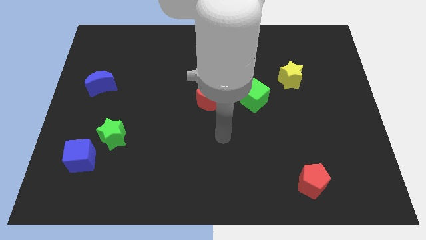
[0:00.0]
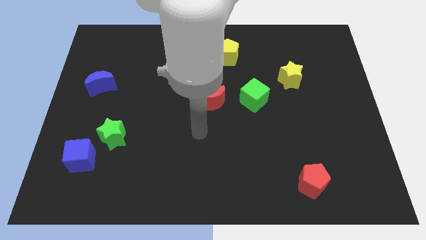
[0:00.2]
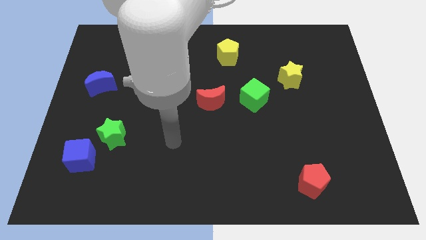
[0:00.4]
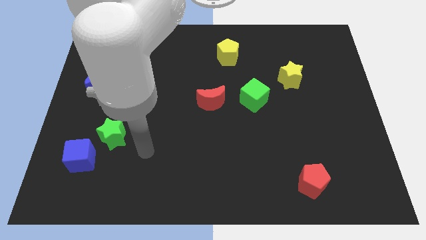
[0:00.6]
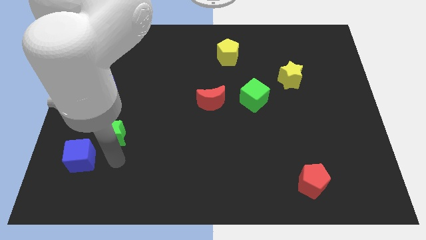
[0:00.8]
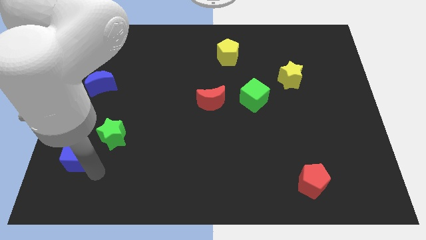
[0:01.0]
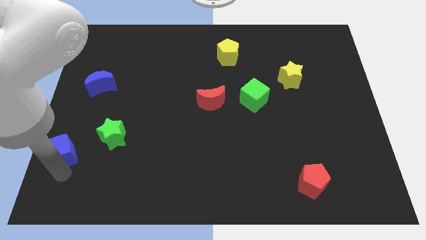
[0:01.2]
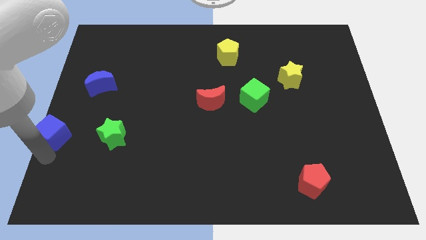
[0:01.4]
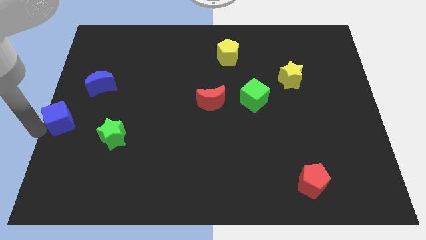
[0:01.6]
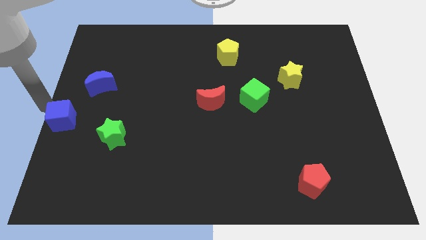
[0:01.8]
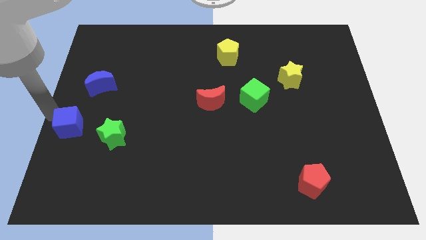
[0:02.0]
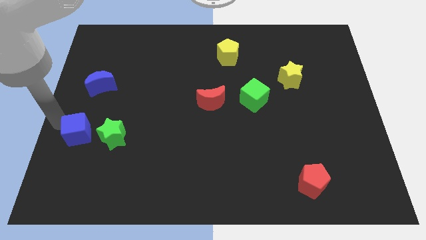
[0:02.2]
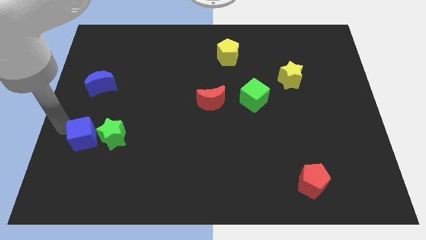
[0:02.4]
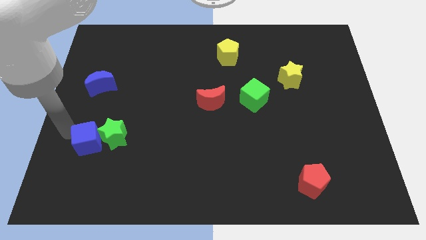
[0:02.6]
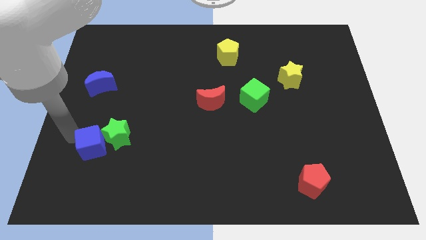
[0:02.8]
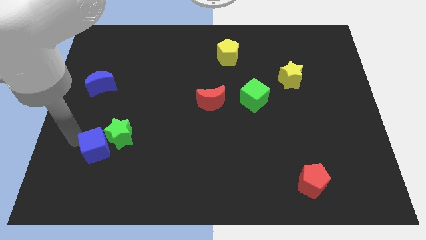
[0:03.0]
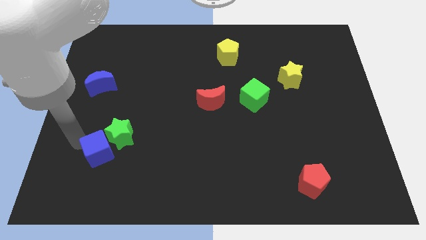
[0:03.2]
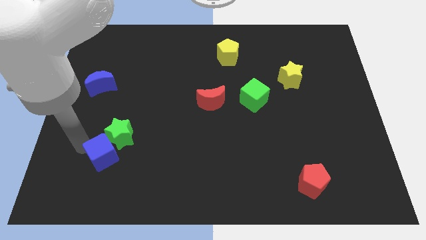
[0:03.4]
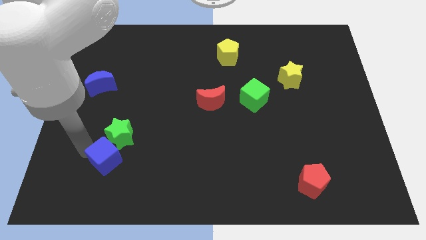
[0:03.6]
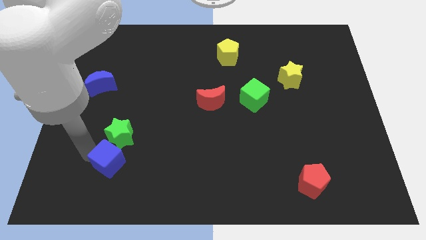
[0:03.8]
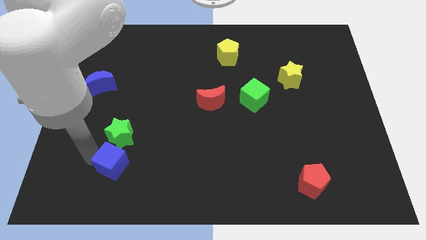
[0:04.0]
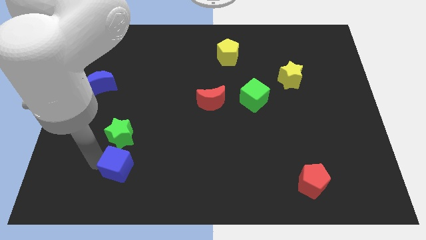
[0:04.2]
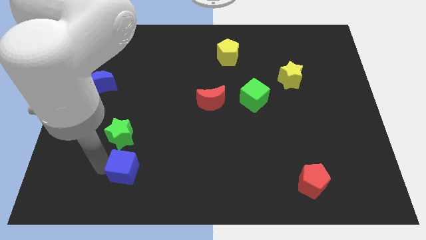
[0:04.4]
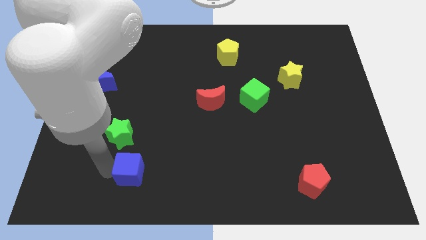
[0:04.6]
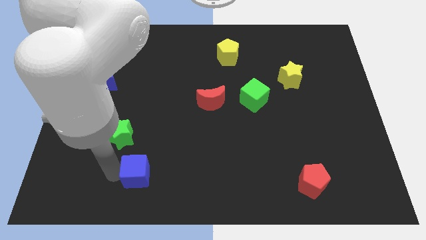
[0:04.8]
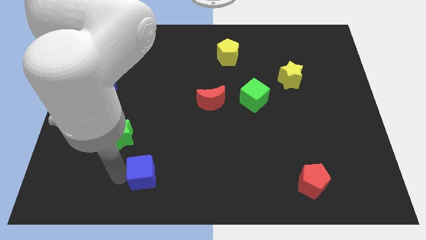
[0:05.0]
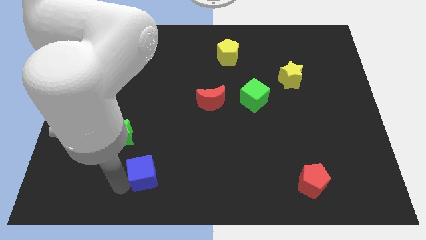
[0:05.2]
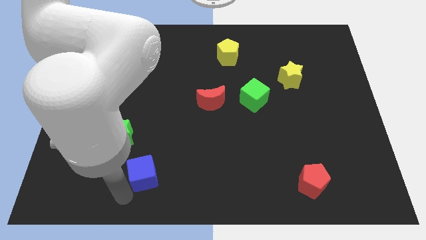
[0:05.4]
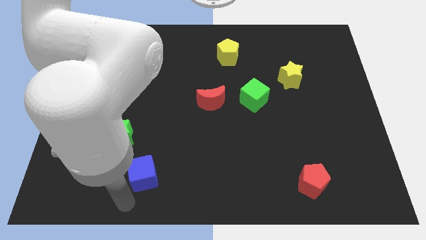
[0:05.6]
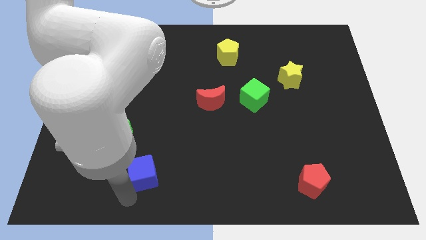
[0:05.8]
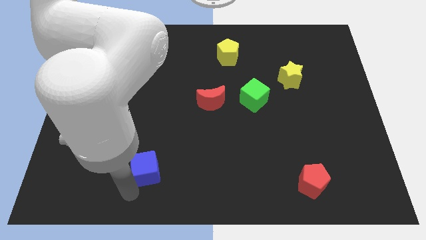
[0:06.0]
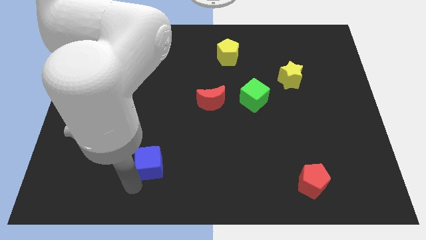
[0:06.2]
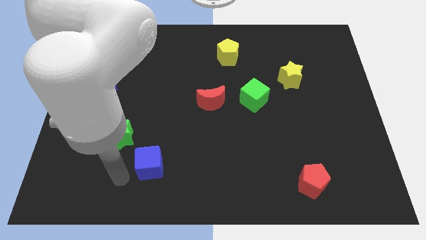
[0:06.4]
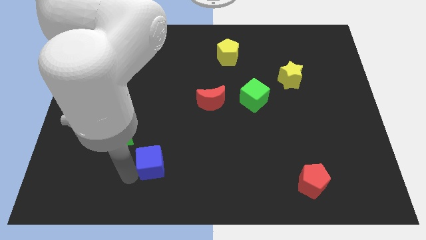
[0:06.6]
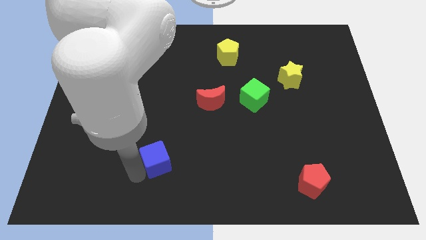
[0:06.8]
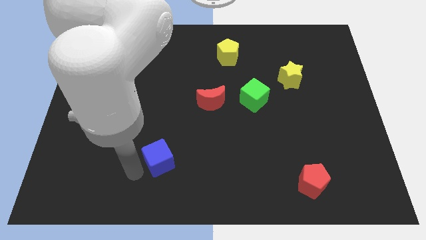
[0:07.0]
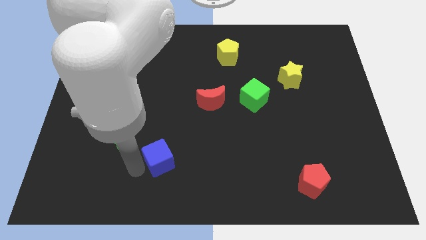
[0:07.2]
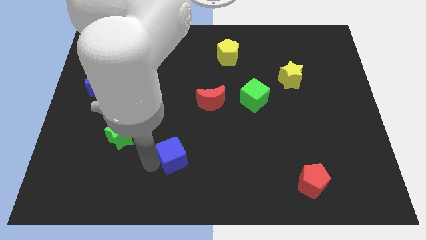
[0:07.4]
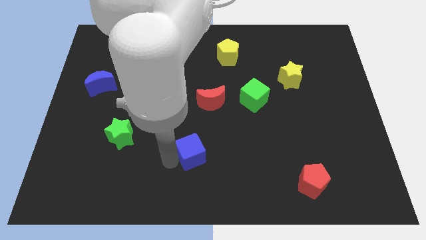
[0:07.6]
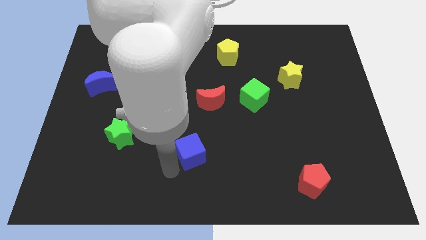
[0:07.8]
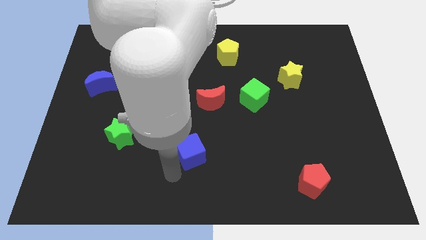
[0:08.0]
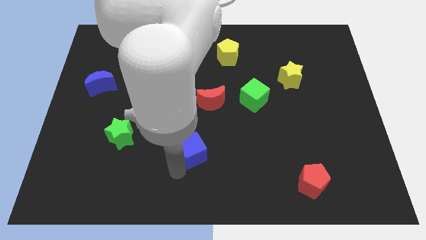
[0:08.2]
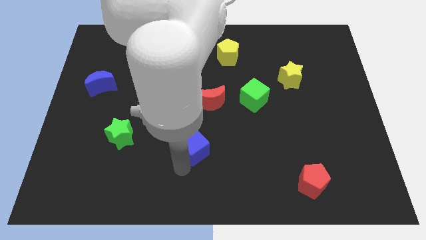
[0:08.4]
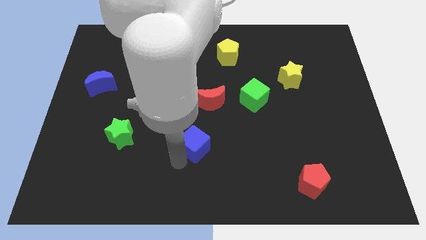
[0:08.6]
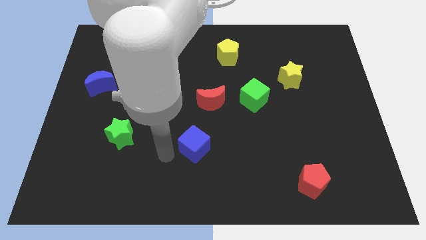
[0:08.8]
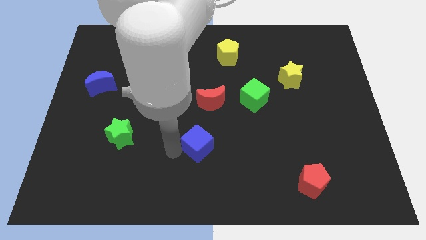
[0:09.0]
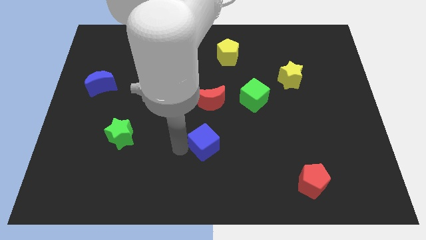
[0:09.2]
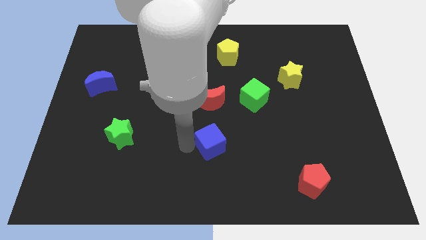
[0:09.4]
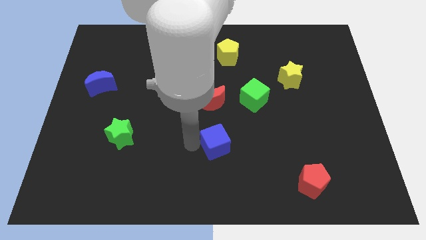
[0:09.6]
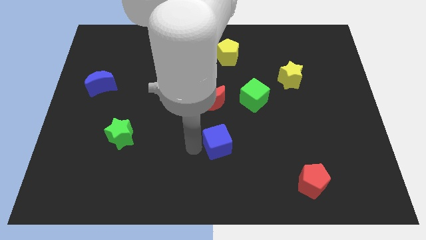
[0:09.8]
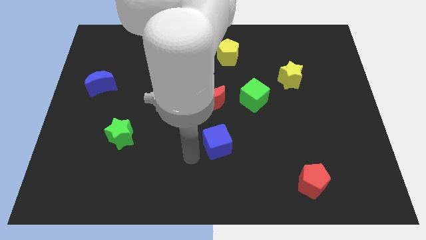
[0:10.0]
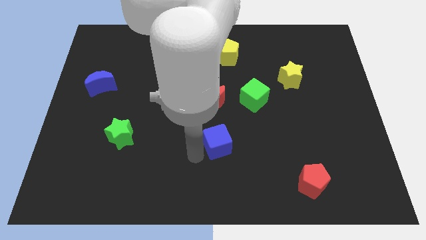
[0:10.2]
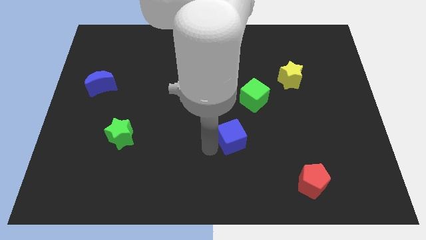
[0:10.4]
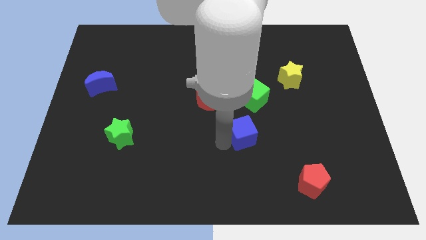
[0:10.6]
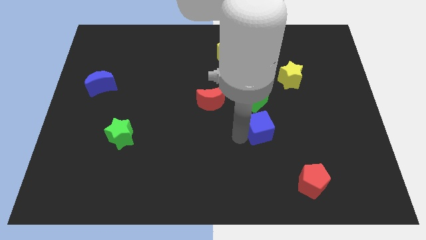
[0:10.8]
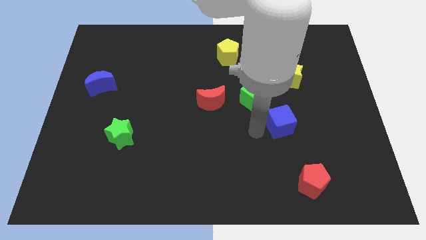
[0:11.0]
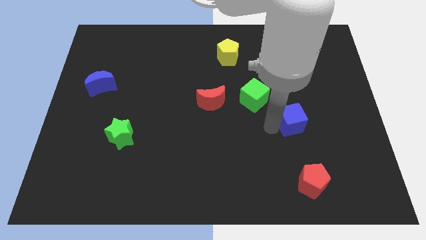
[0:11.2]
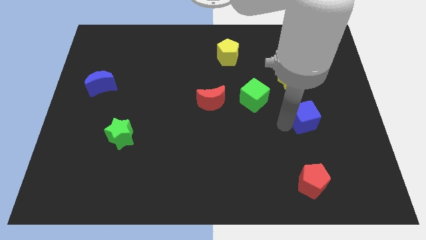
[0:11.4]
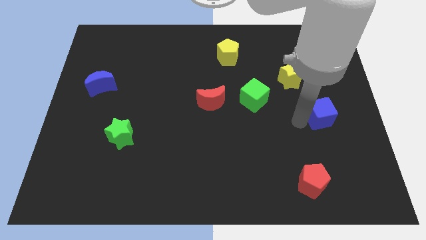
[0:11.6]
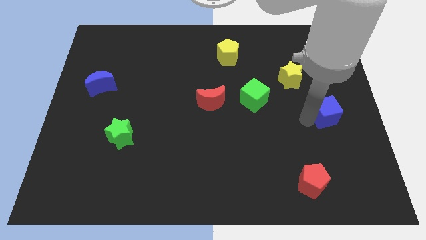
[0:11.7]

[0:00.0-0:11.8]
push the blue cube to the center right
